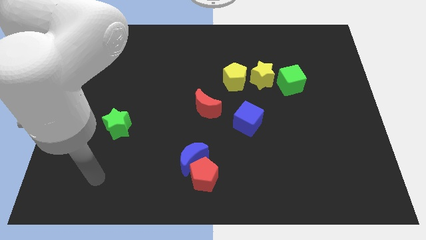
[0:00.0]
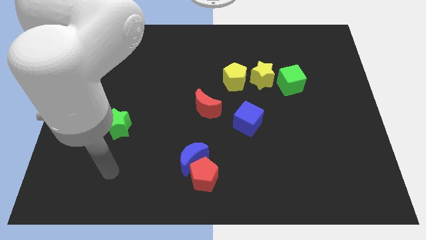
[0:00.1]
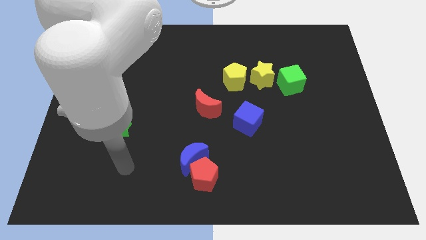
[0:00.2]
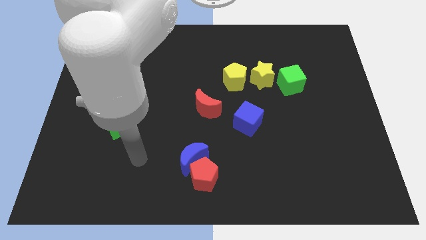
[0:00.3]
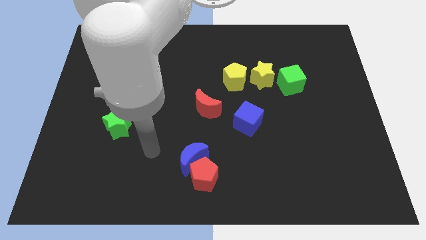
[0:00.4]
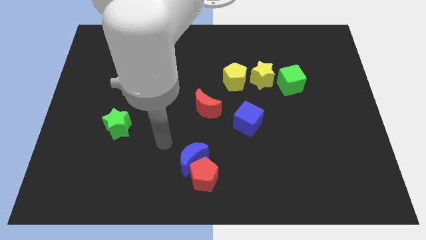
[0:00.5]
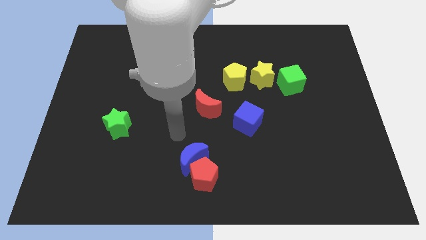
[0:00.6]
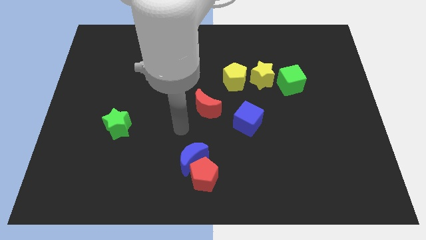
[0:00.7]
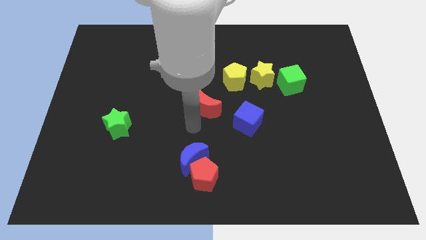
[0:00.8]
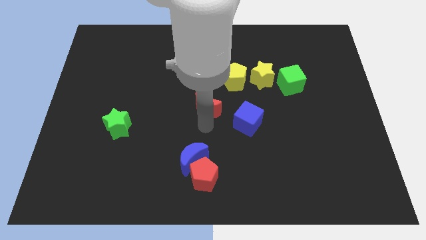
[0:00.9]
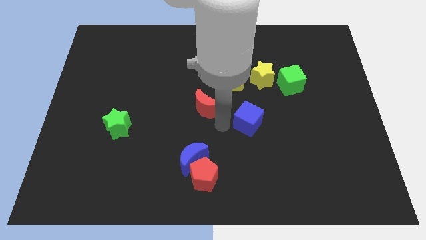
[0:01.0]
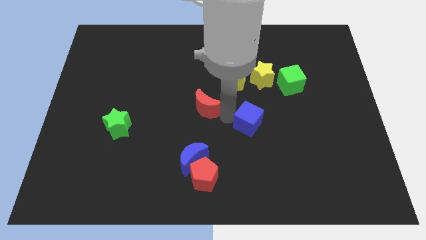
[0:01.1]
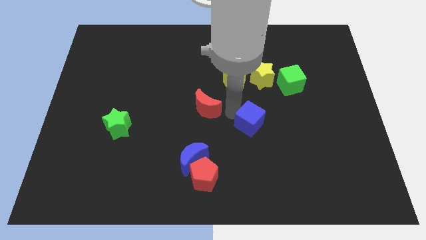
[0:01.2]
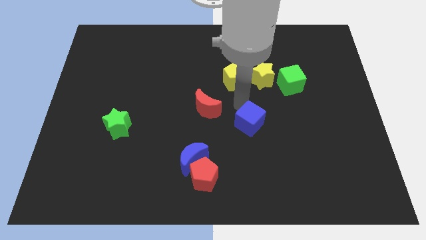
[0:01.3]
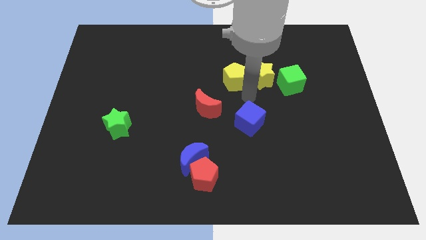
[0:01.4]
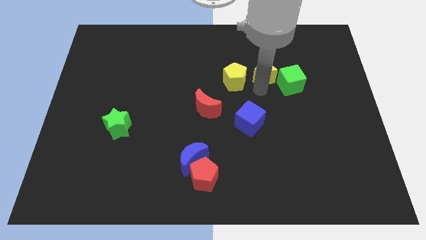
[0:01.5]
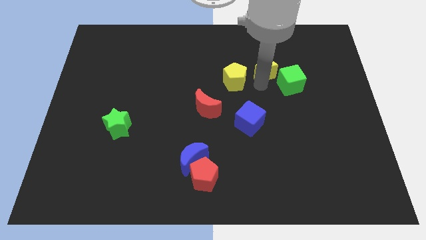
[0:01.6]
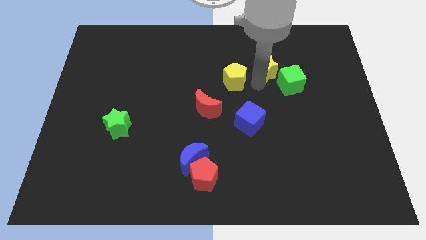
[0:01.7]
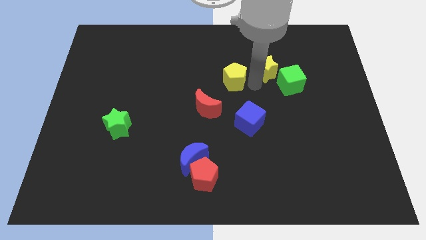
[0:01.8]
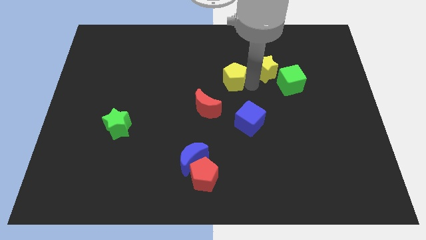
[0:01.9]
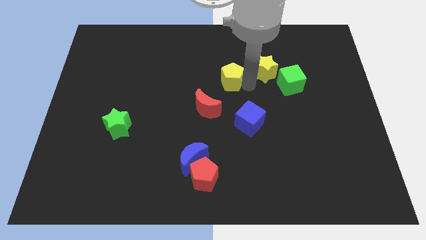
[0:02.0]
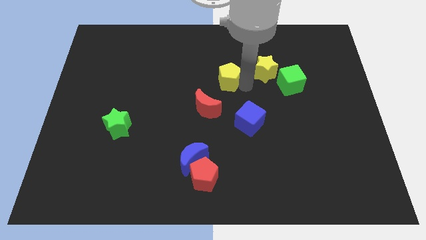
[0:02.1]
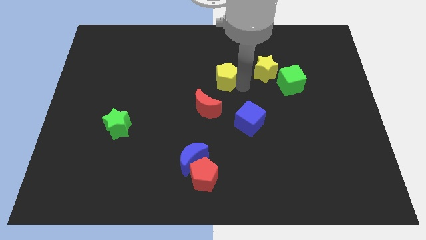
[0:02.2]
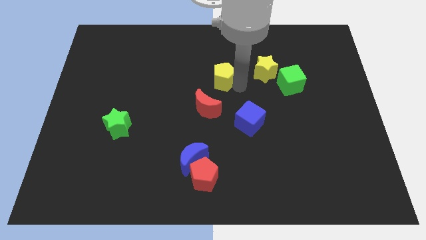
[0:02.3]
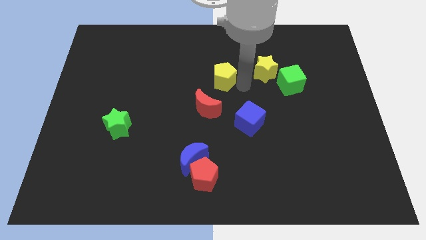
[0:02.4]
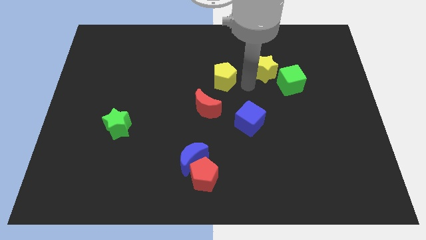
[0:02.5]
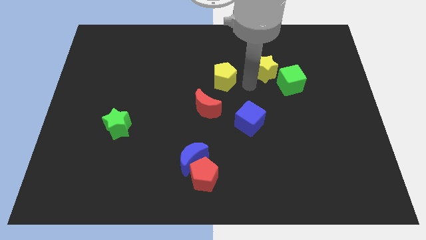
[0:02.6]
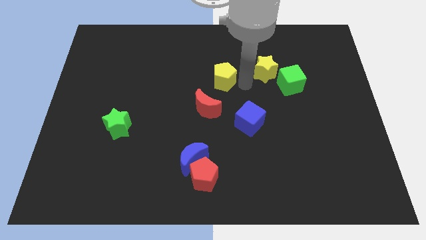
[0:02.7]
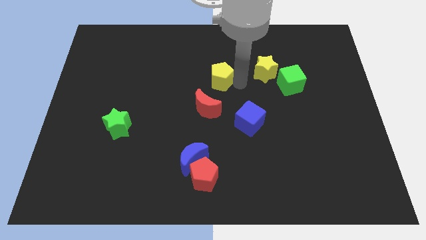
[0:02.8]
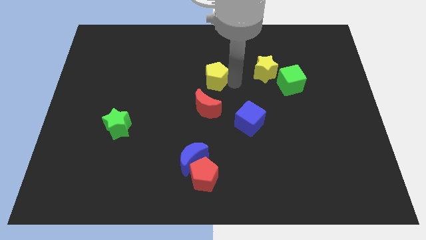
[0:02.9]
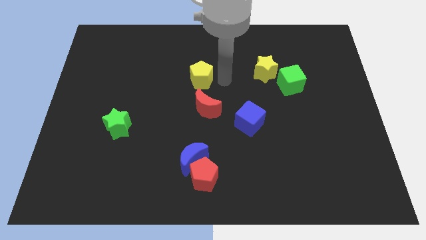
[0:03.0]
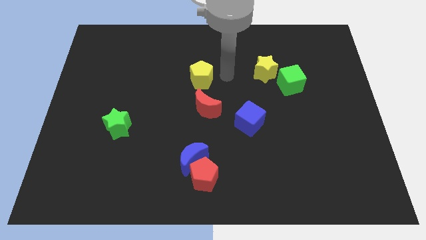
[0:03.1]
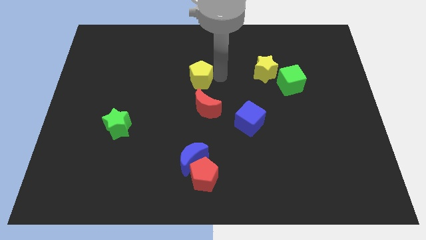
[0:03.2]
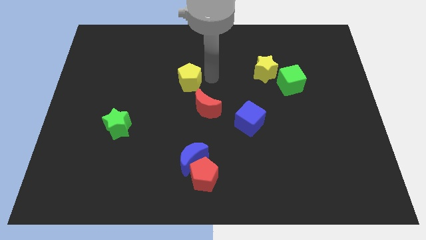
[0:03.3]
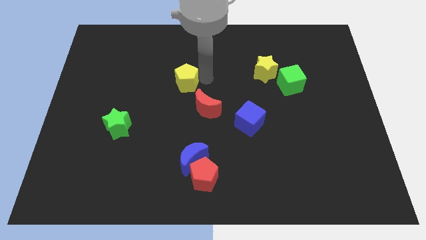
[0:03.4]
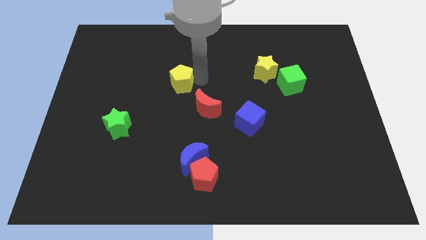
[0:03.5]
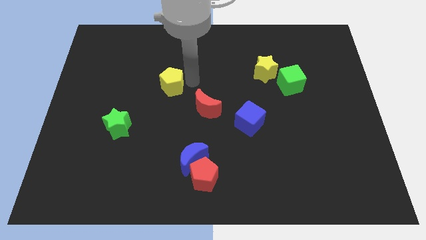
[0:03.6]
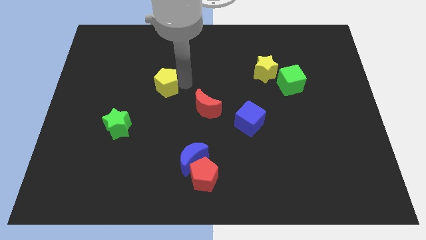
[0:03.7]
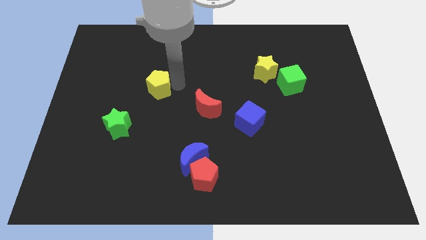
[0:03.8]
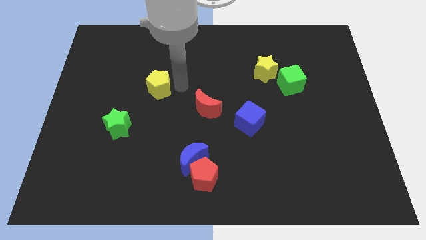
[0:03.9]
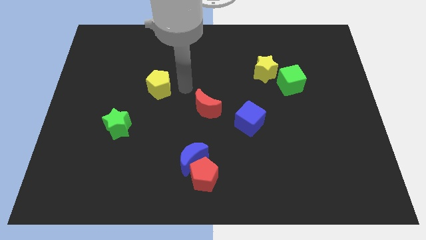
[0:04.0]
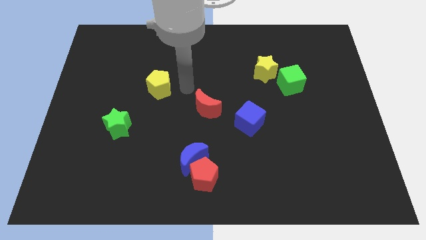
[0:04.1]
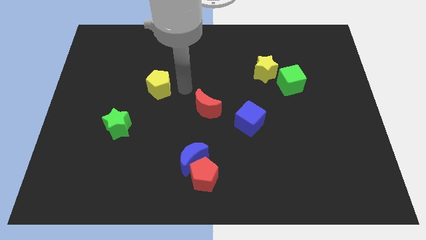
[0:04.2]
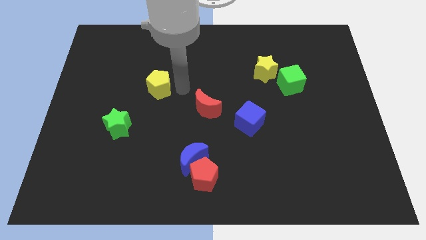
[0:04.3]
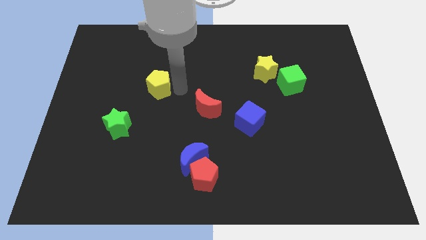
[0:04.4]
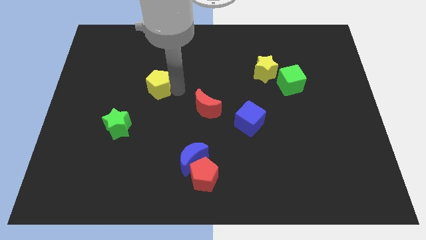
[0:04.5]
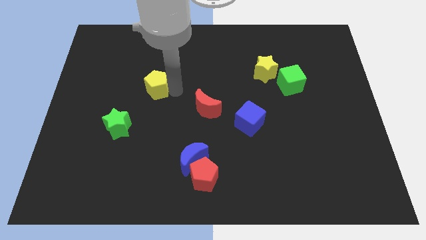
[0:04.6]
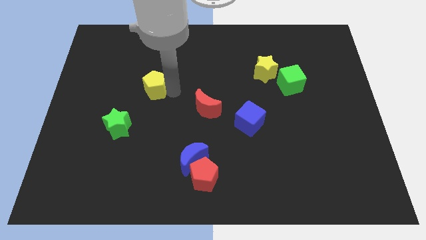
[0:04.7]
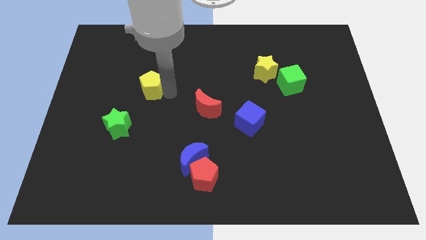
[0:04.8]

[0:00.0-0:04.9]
push the yellow pentagon to the left

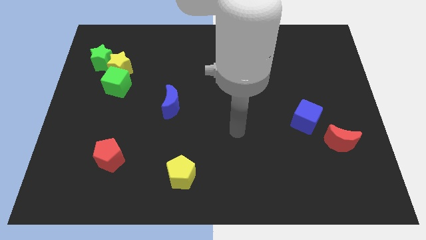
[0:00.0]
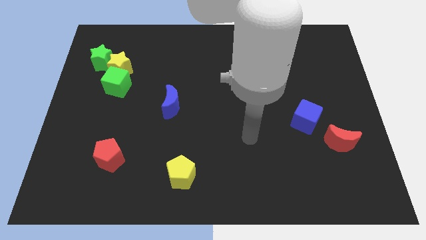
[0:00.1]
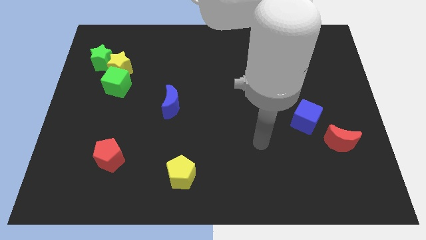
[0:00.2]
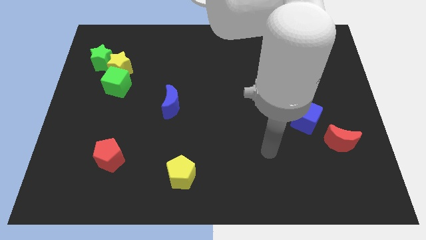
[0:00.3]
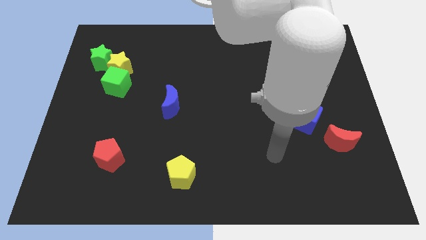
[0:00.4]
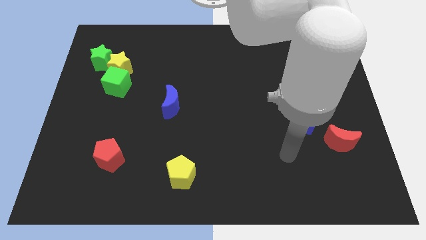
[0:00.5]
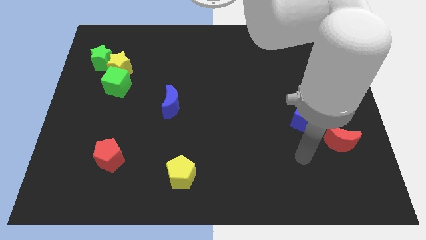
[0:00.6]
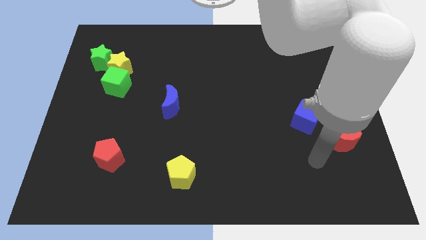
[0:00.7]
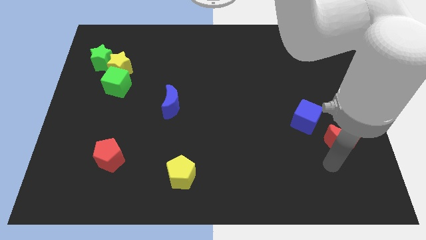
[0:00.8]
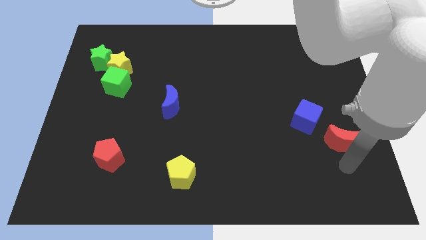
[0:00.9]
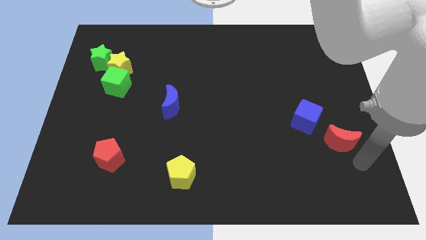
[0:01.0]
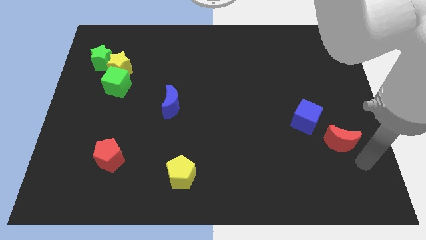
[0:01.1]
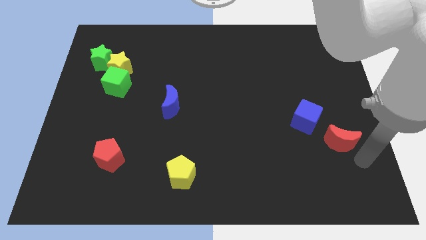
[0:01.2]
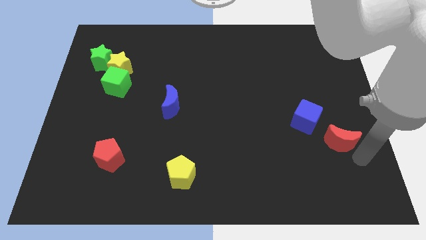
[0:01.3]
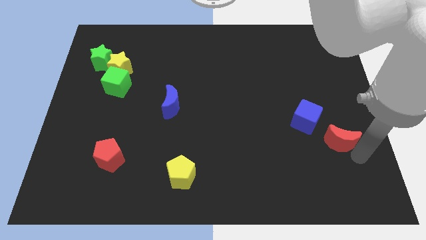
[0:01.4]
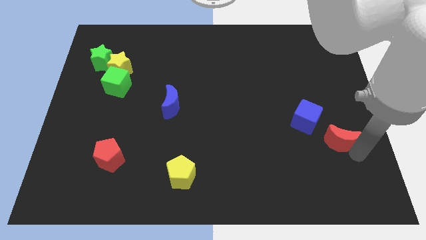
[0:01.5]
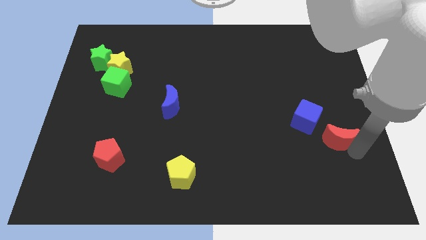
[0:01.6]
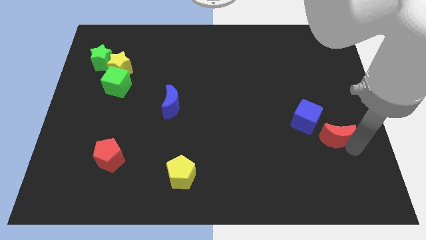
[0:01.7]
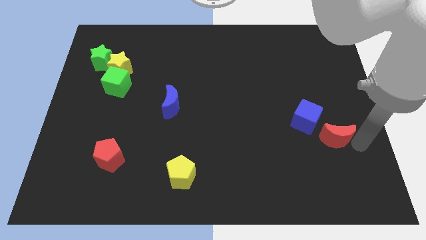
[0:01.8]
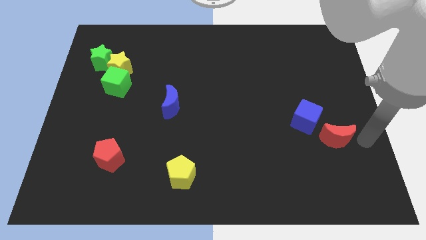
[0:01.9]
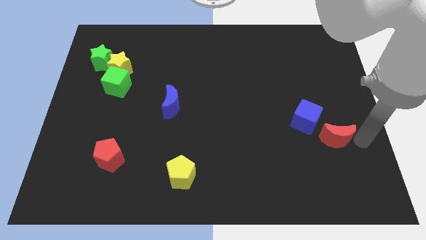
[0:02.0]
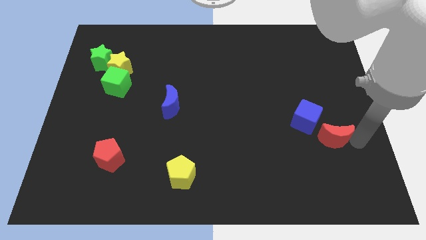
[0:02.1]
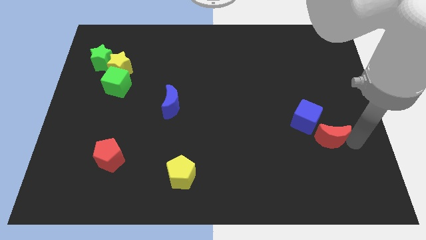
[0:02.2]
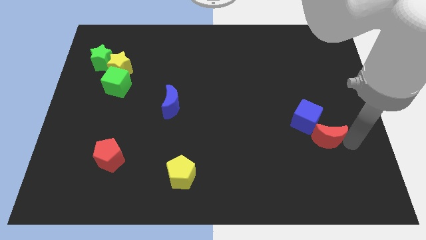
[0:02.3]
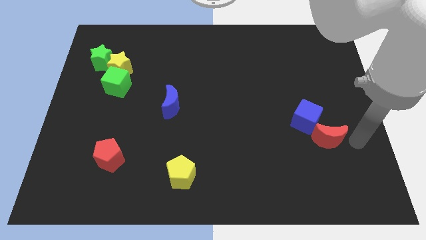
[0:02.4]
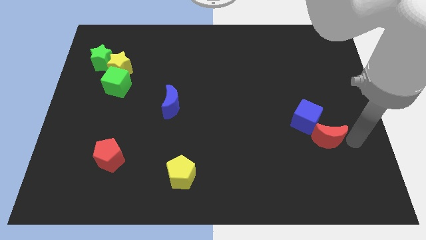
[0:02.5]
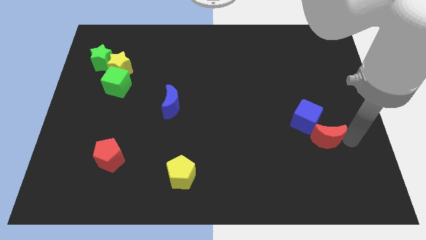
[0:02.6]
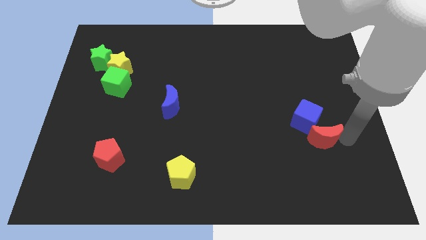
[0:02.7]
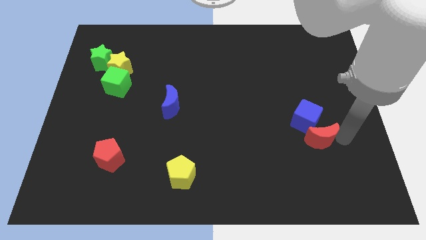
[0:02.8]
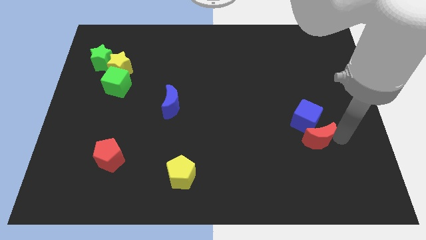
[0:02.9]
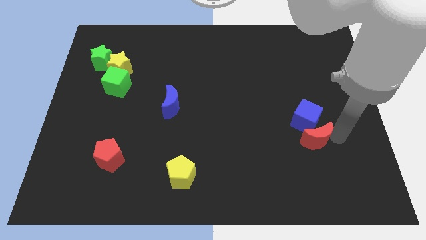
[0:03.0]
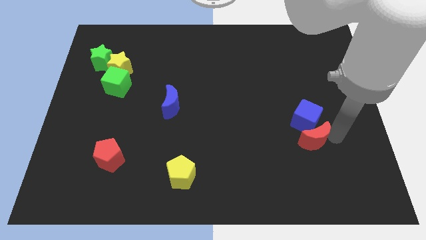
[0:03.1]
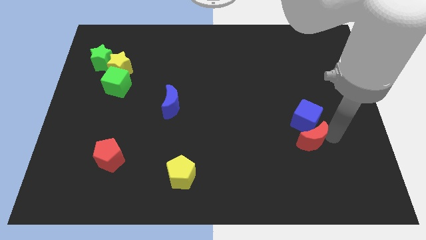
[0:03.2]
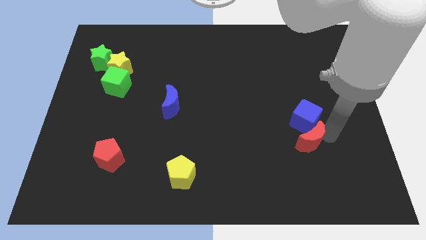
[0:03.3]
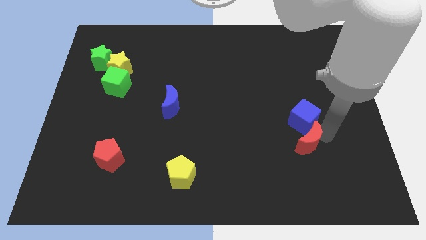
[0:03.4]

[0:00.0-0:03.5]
slightly slide the red moon left
